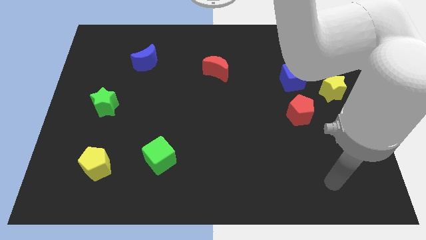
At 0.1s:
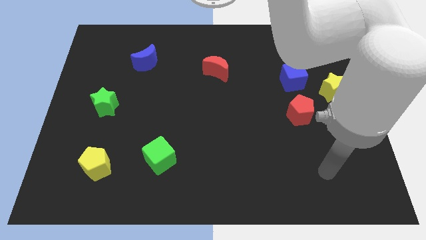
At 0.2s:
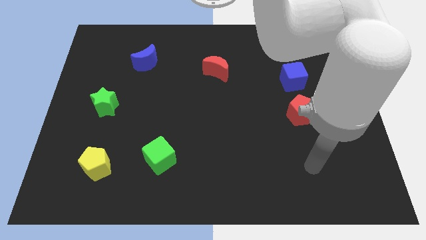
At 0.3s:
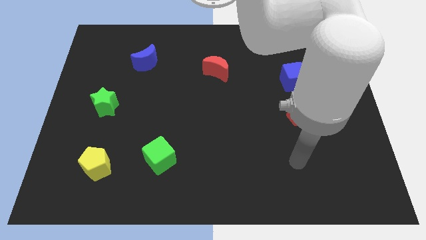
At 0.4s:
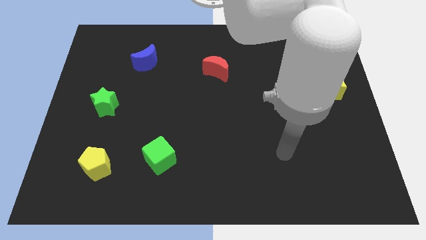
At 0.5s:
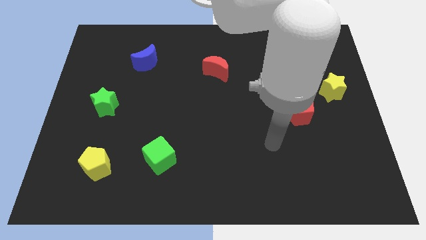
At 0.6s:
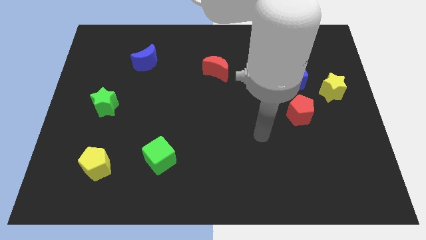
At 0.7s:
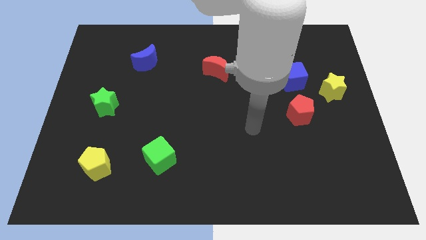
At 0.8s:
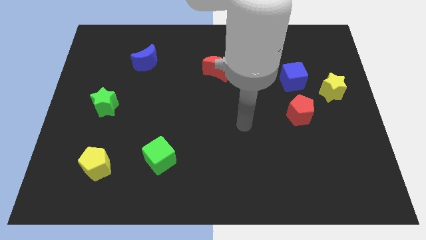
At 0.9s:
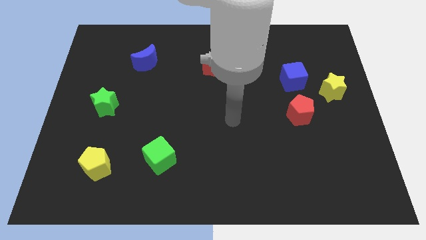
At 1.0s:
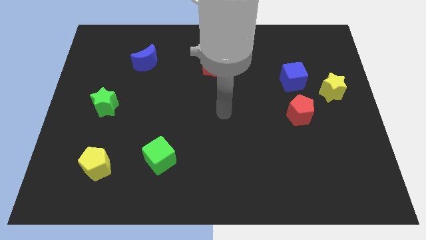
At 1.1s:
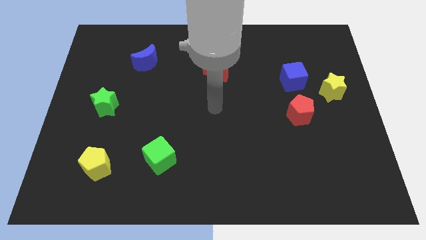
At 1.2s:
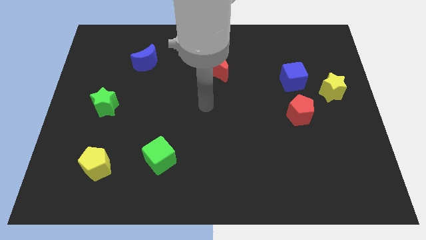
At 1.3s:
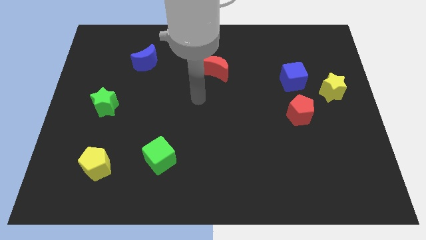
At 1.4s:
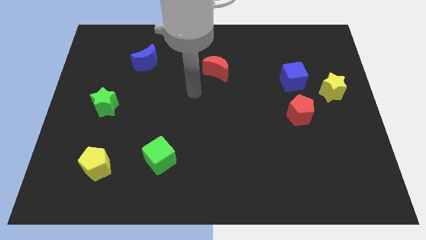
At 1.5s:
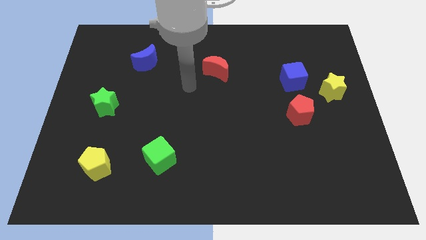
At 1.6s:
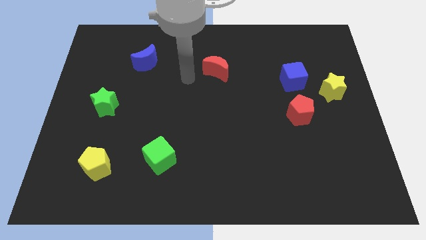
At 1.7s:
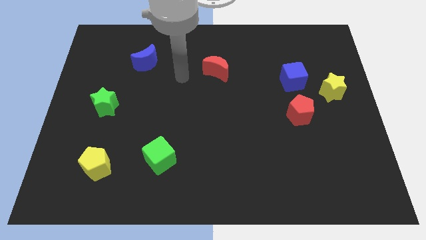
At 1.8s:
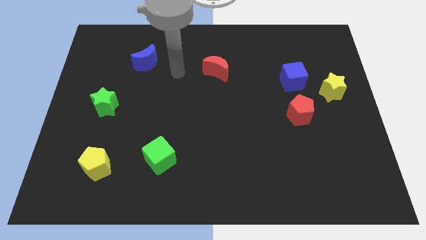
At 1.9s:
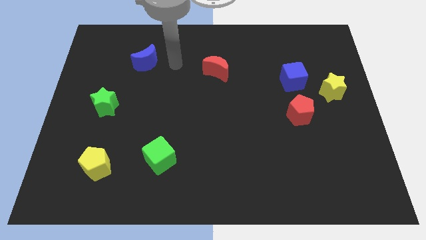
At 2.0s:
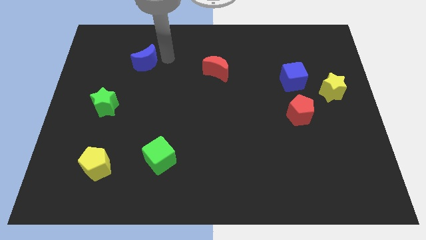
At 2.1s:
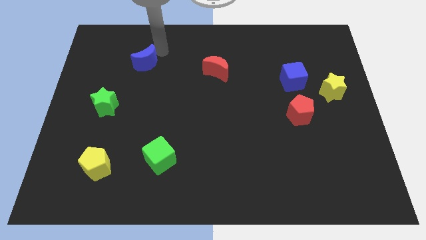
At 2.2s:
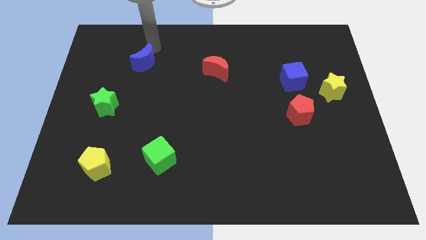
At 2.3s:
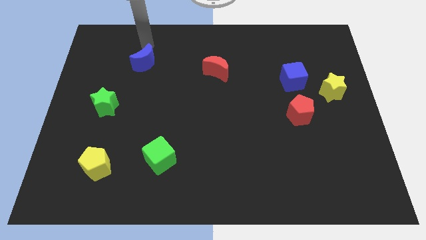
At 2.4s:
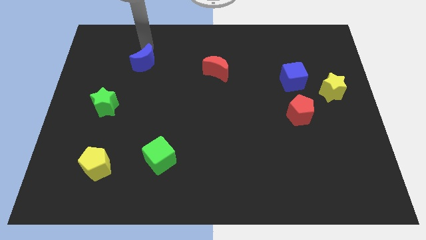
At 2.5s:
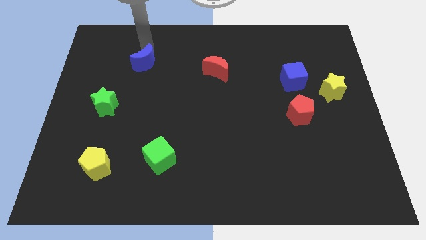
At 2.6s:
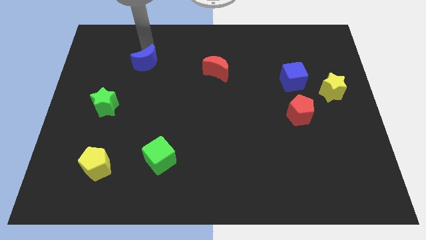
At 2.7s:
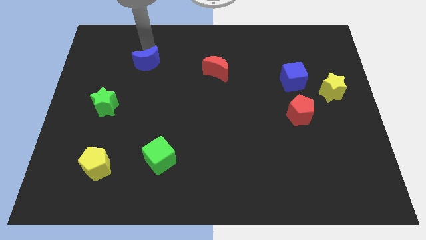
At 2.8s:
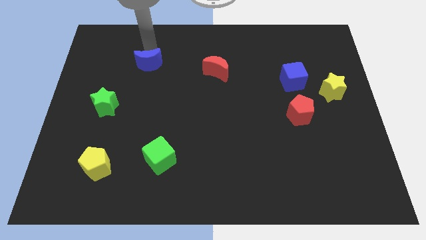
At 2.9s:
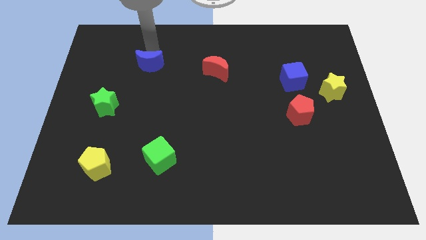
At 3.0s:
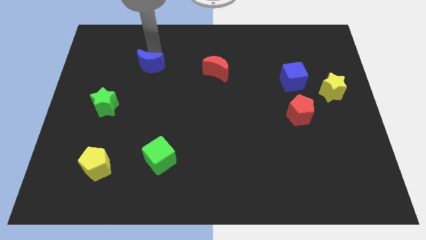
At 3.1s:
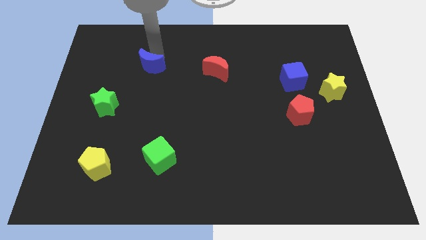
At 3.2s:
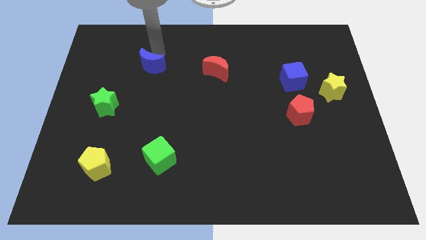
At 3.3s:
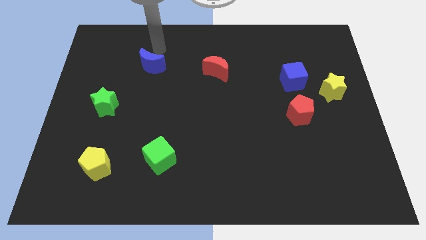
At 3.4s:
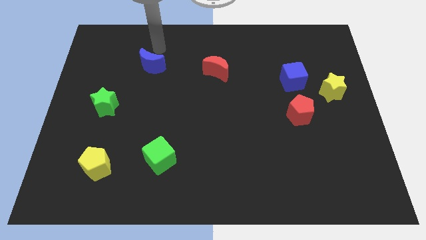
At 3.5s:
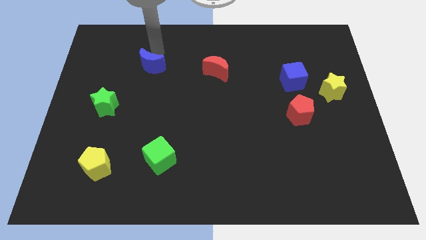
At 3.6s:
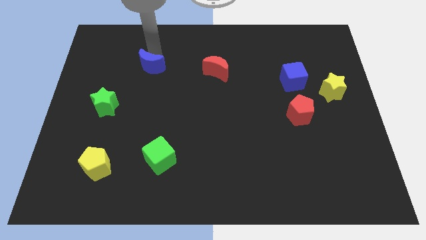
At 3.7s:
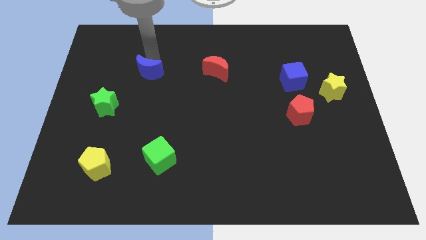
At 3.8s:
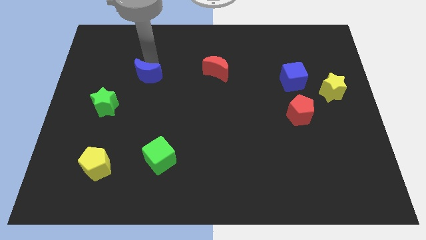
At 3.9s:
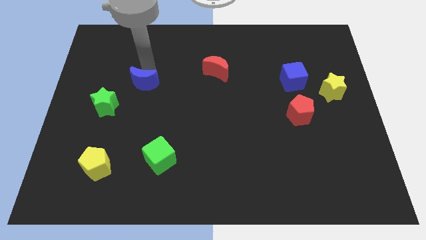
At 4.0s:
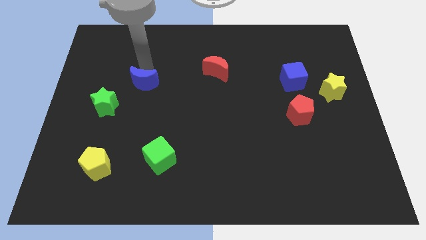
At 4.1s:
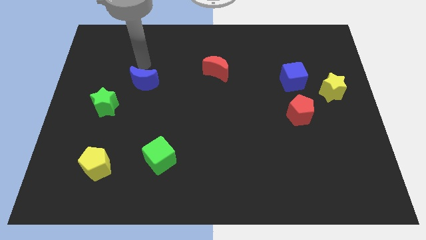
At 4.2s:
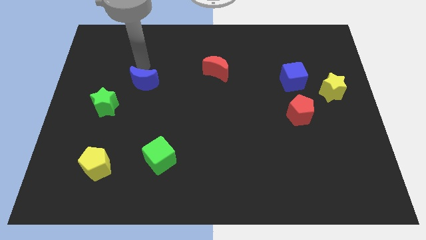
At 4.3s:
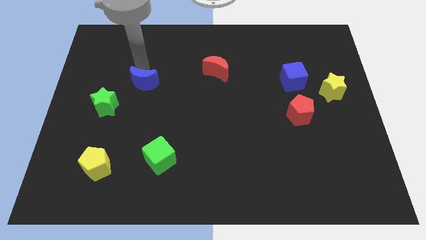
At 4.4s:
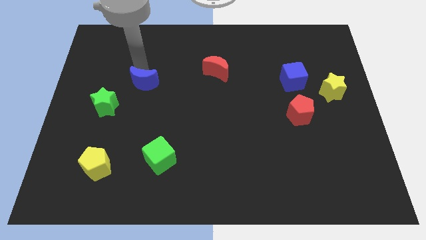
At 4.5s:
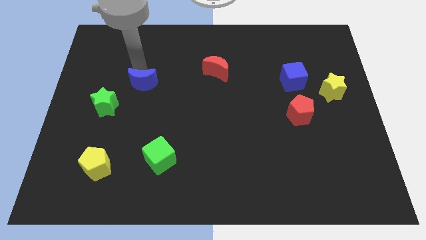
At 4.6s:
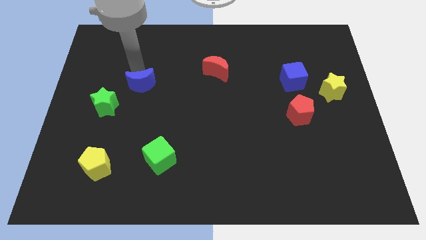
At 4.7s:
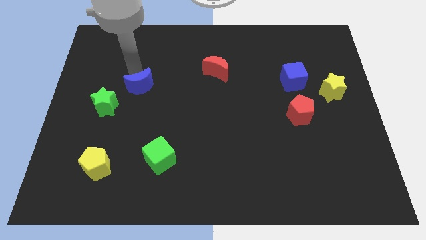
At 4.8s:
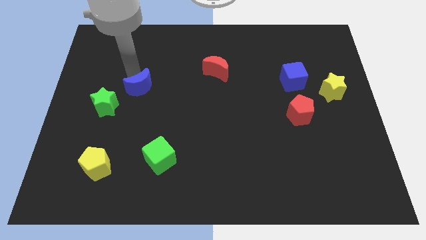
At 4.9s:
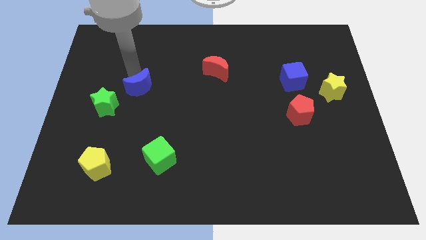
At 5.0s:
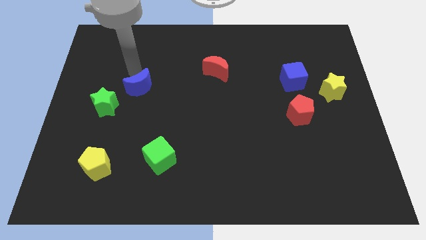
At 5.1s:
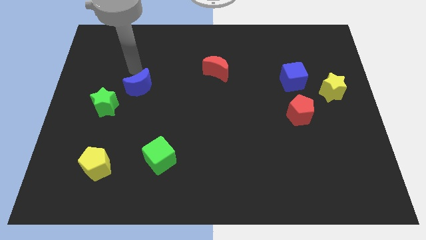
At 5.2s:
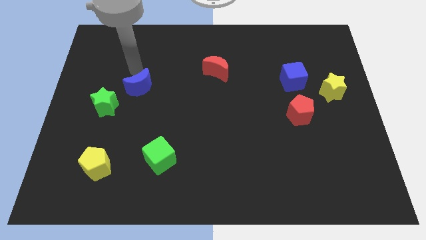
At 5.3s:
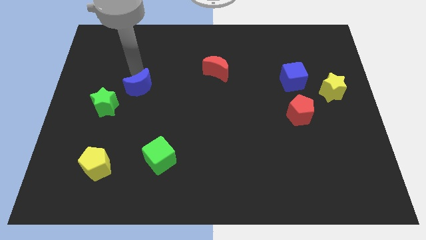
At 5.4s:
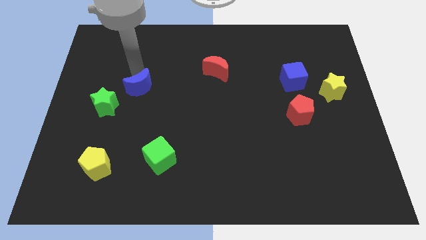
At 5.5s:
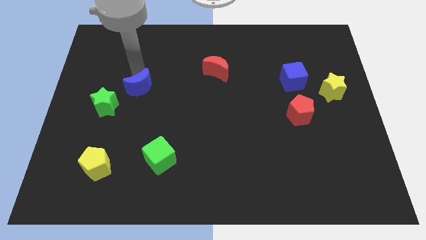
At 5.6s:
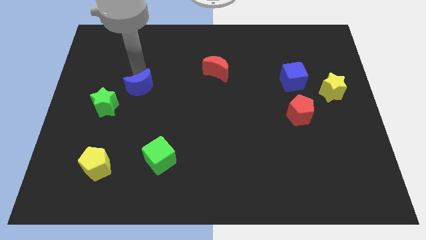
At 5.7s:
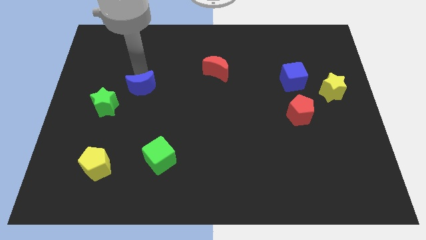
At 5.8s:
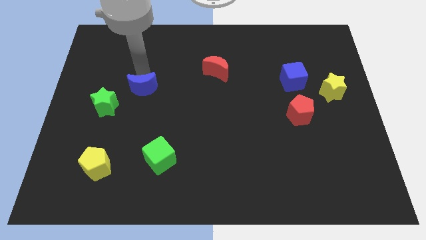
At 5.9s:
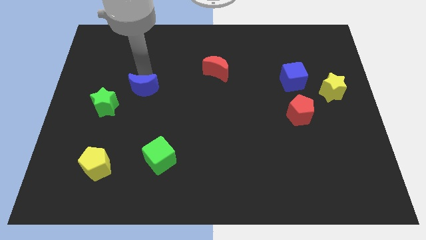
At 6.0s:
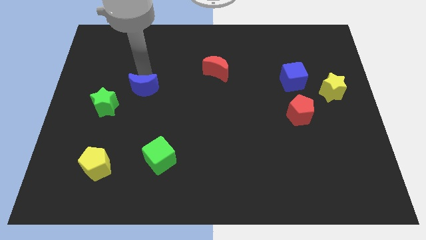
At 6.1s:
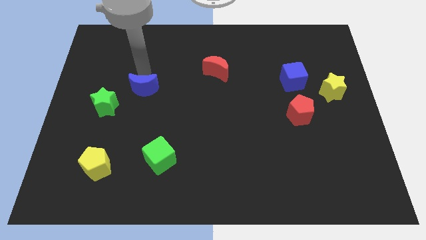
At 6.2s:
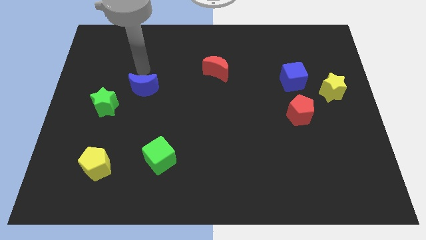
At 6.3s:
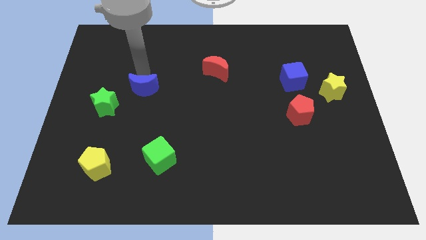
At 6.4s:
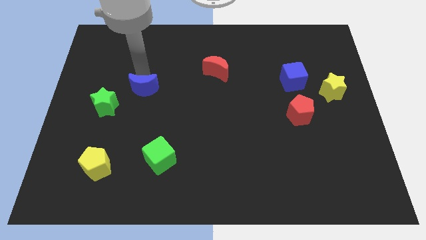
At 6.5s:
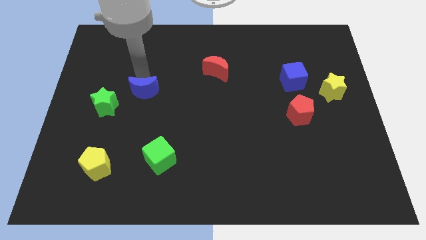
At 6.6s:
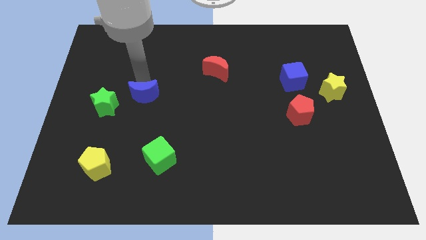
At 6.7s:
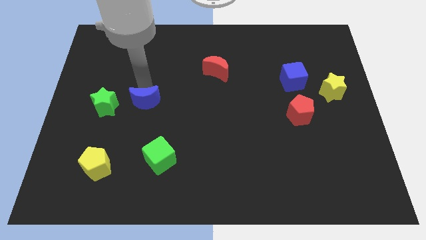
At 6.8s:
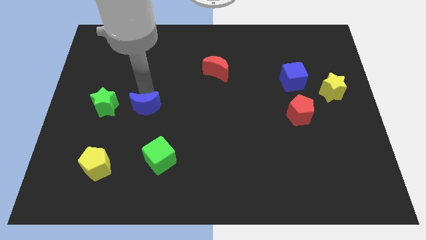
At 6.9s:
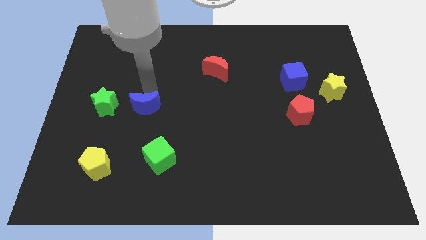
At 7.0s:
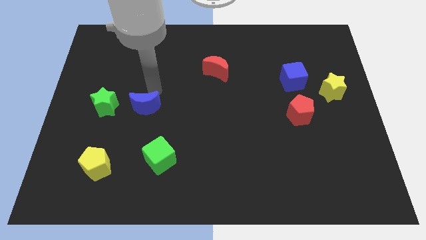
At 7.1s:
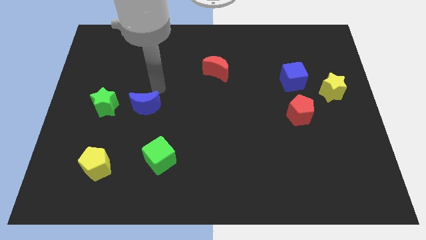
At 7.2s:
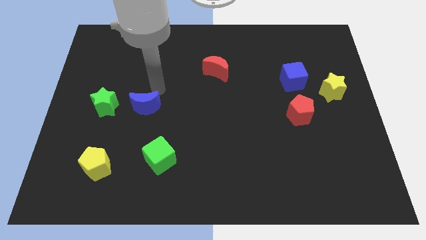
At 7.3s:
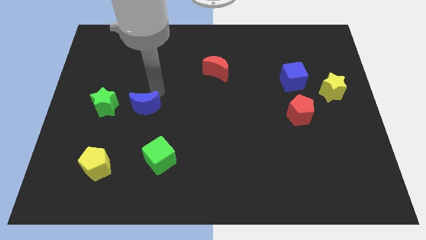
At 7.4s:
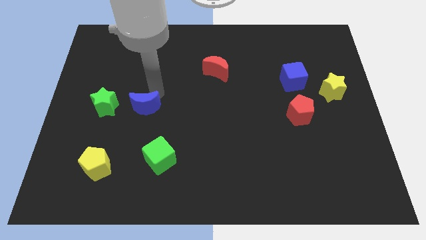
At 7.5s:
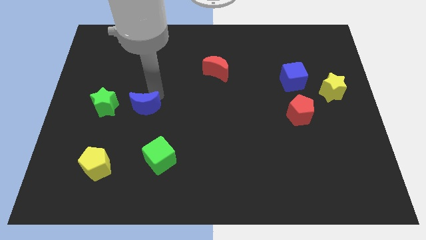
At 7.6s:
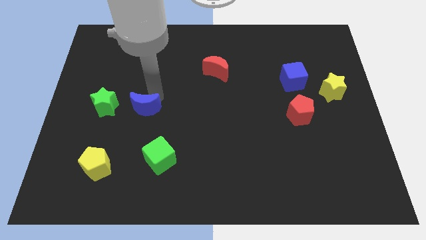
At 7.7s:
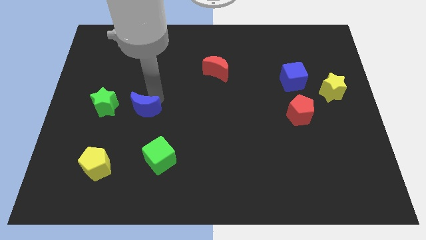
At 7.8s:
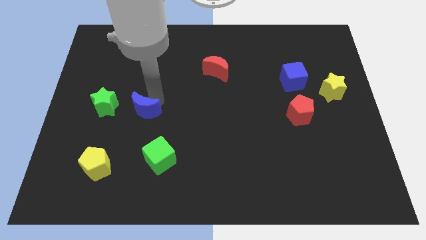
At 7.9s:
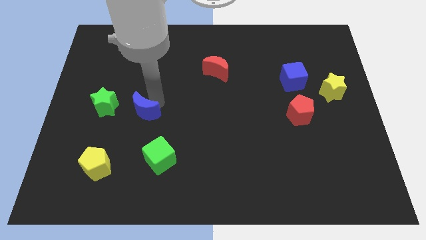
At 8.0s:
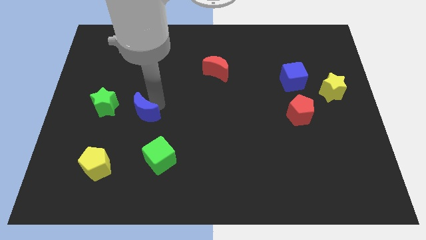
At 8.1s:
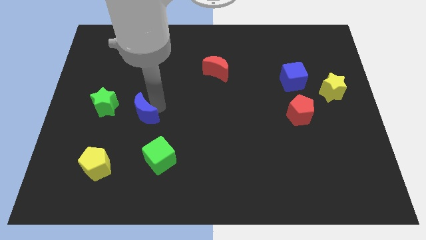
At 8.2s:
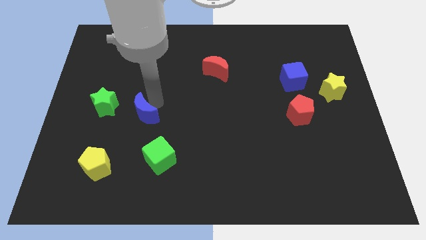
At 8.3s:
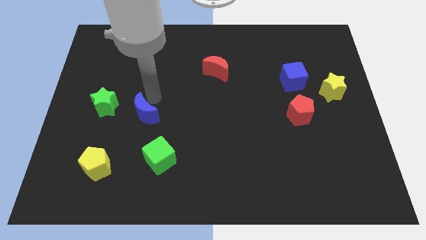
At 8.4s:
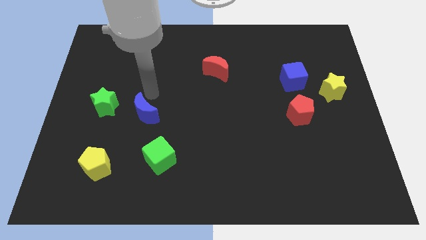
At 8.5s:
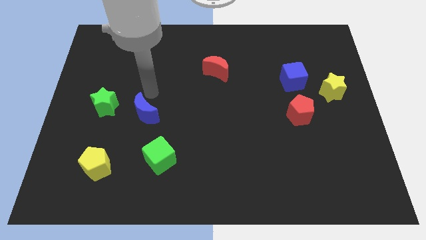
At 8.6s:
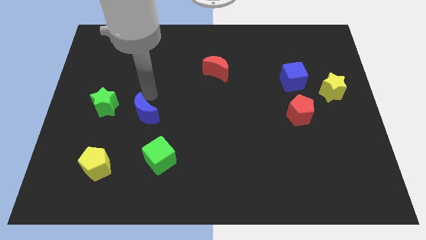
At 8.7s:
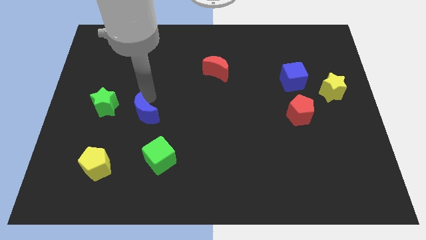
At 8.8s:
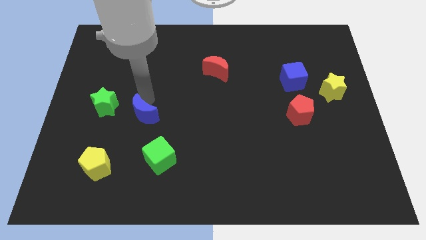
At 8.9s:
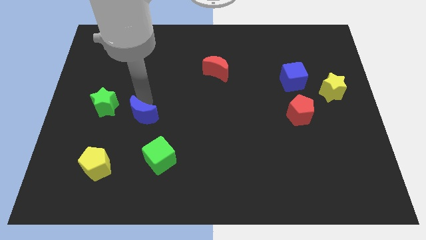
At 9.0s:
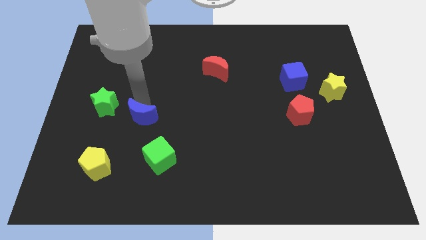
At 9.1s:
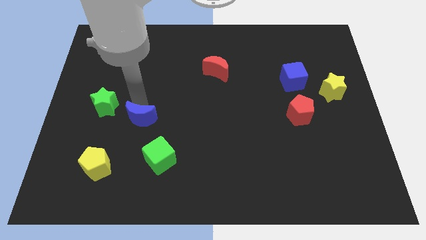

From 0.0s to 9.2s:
push the blue moon to the top left side of the green cube
